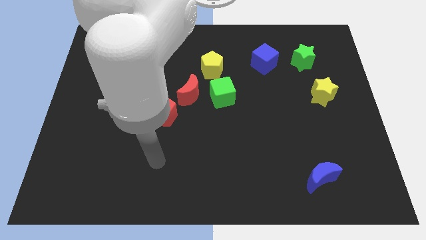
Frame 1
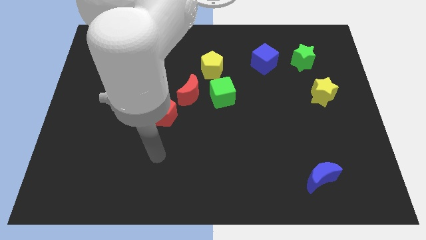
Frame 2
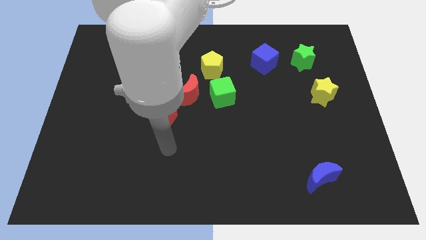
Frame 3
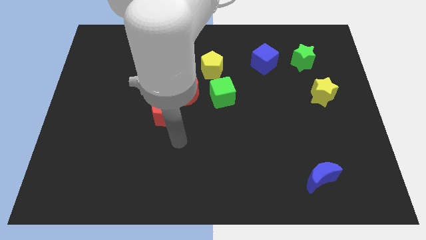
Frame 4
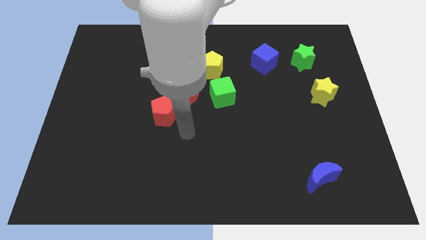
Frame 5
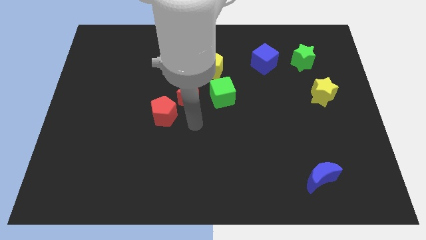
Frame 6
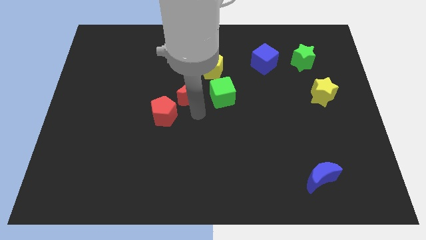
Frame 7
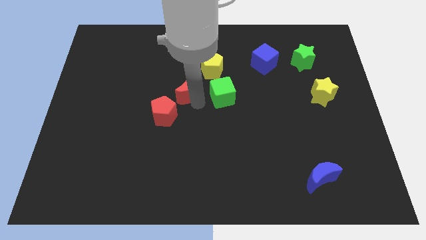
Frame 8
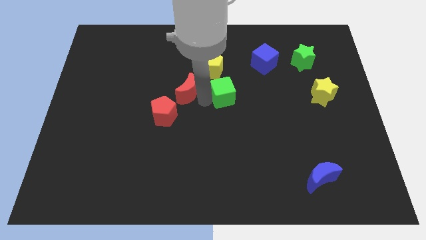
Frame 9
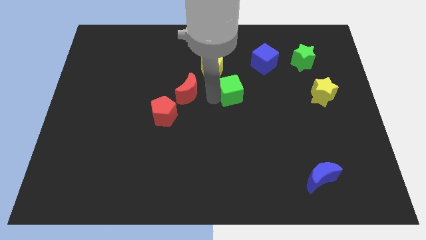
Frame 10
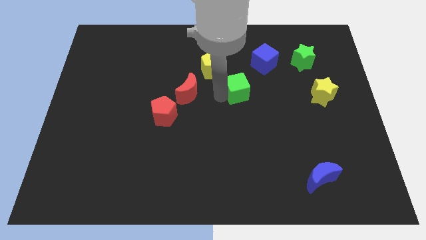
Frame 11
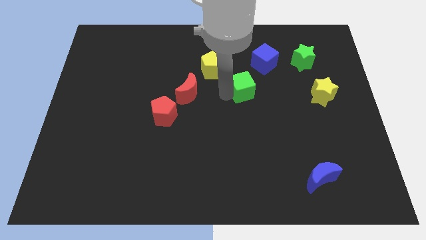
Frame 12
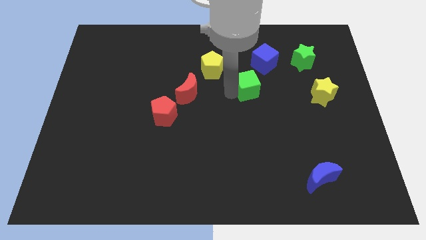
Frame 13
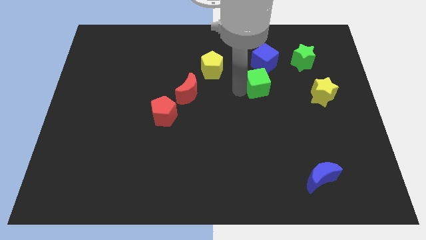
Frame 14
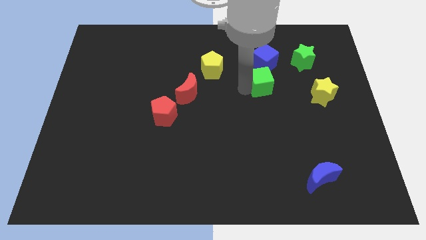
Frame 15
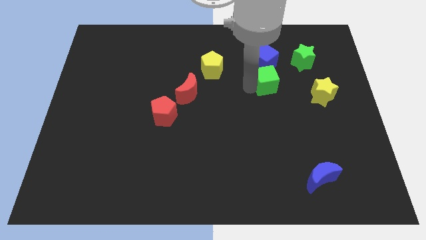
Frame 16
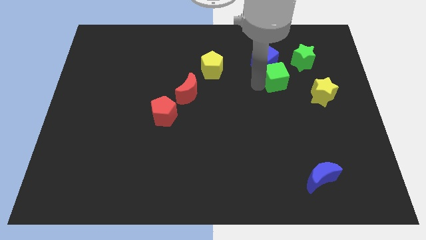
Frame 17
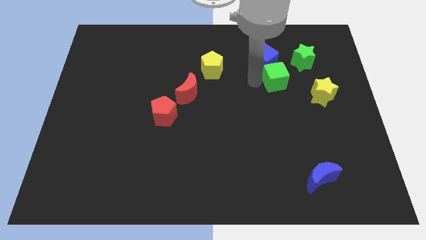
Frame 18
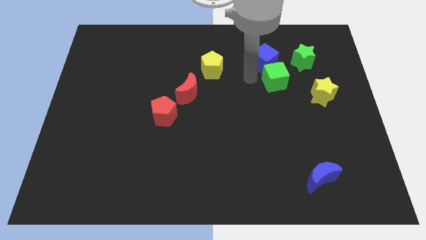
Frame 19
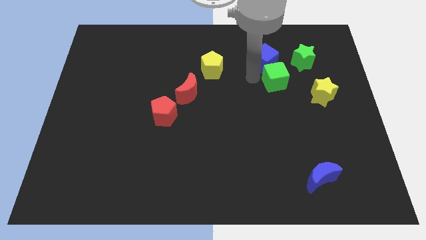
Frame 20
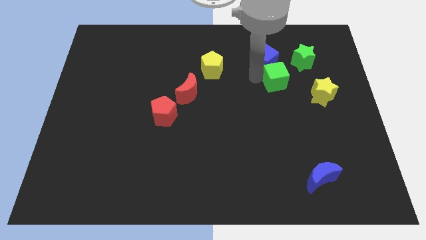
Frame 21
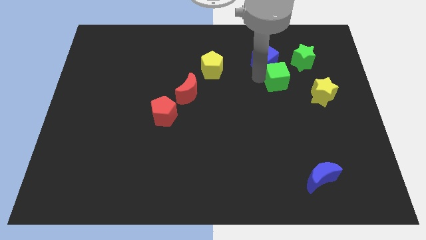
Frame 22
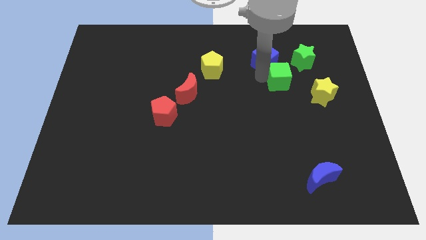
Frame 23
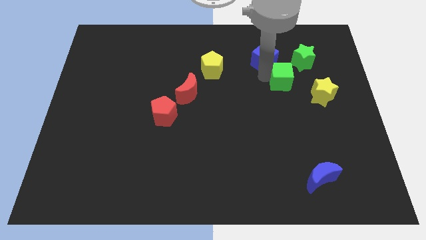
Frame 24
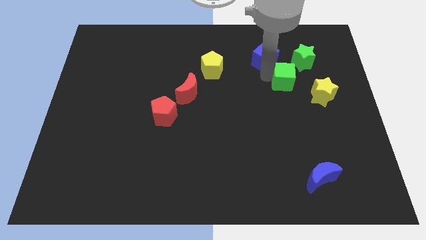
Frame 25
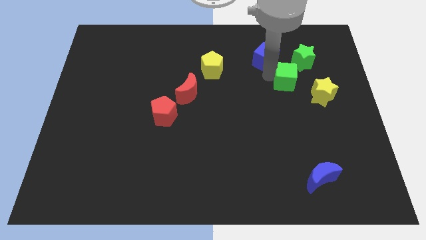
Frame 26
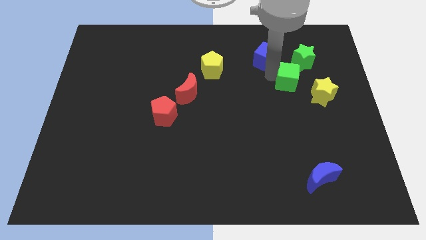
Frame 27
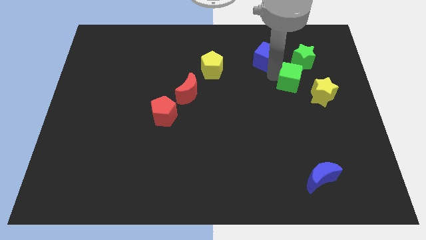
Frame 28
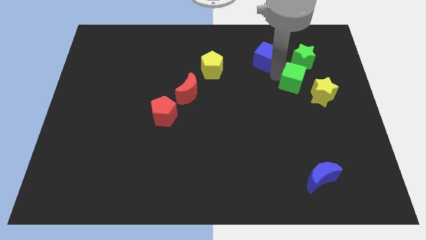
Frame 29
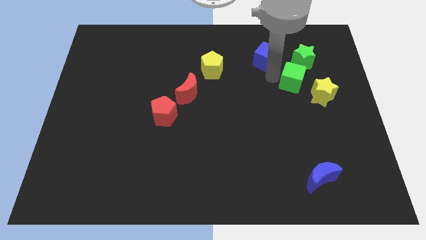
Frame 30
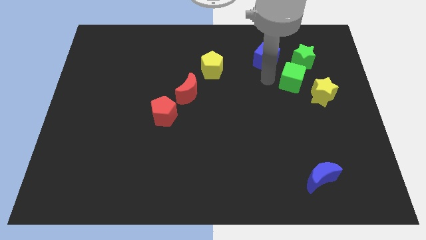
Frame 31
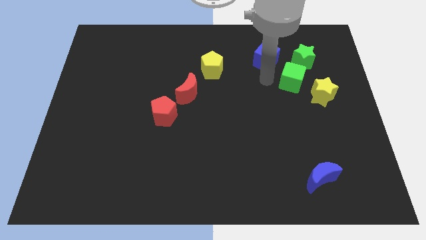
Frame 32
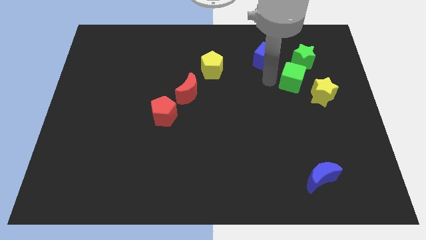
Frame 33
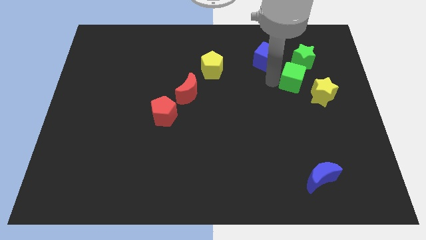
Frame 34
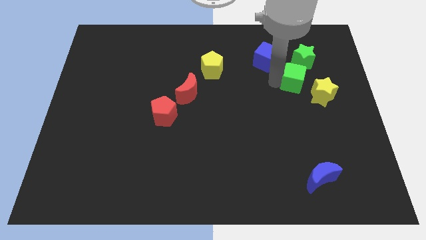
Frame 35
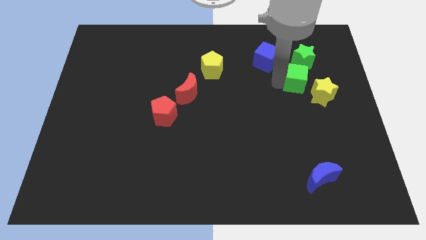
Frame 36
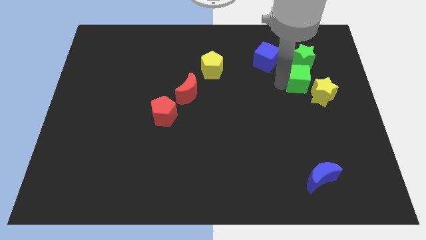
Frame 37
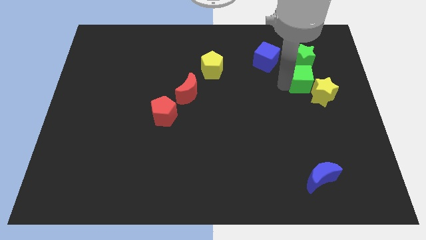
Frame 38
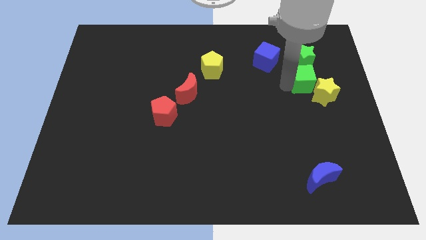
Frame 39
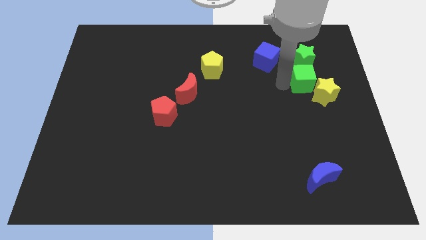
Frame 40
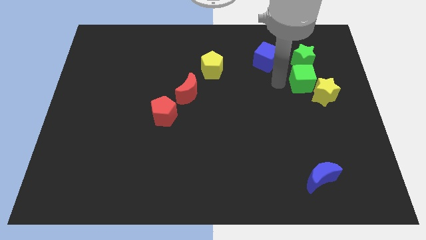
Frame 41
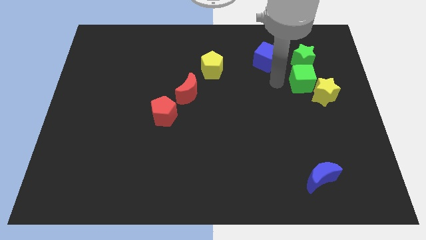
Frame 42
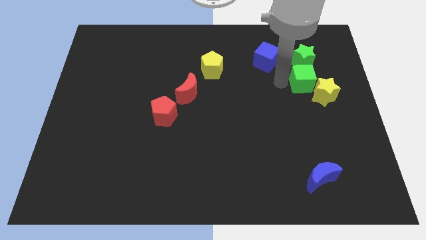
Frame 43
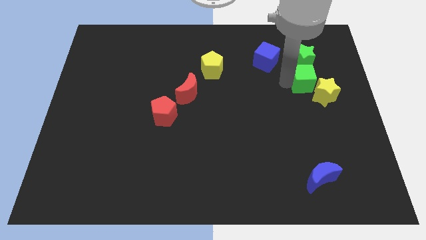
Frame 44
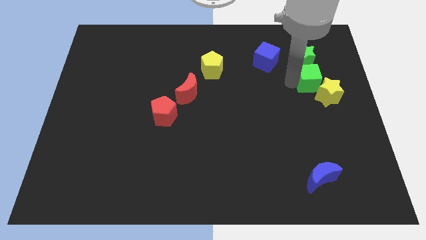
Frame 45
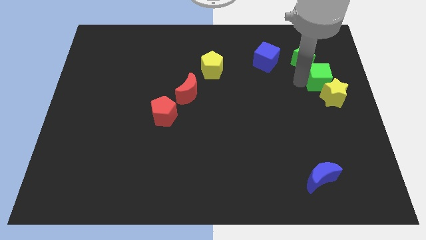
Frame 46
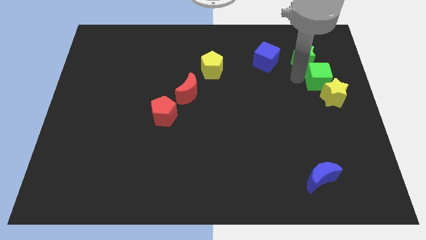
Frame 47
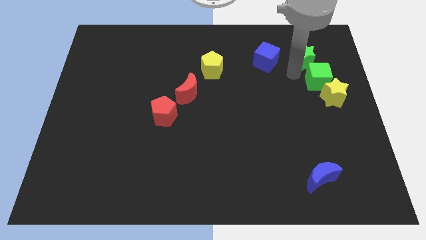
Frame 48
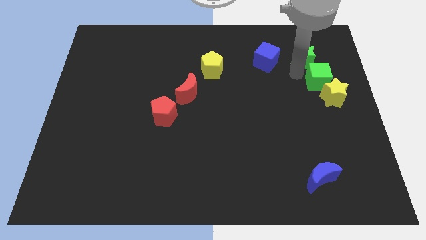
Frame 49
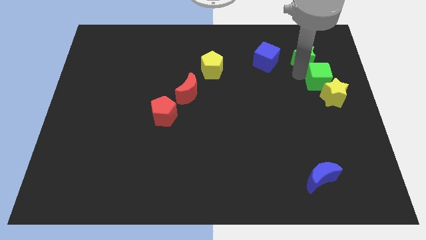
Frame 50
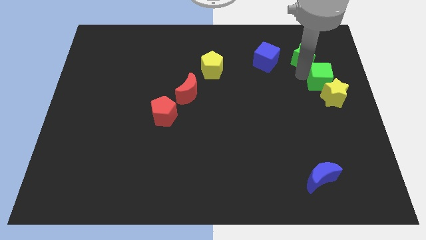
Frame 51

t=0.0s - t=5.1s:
push the green cube to the center right
